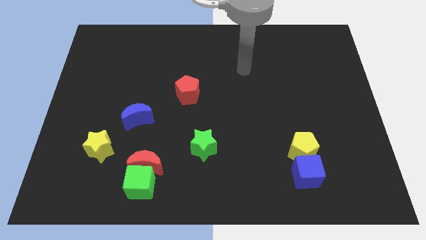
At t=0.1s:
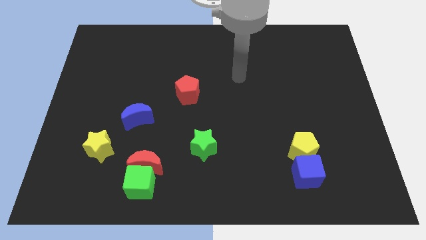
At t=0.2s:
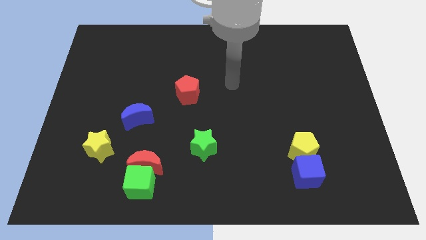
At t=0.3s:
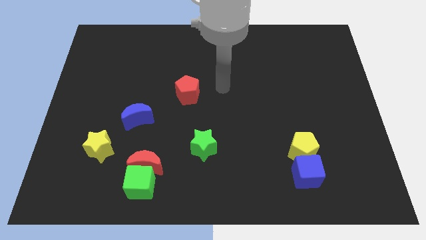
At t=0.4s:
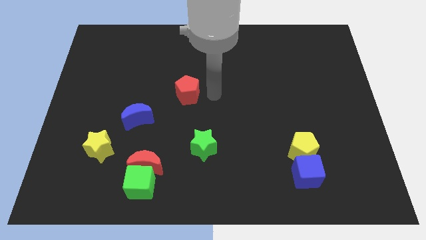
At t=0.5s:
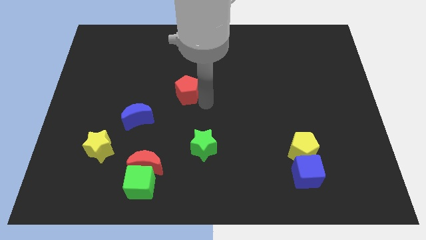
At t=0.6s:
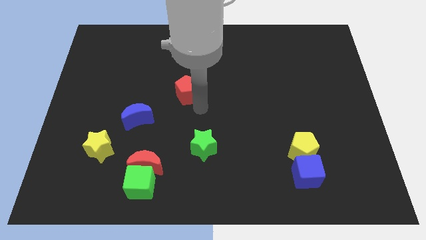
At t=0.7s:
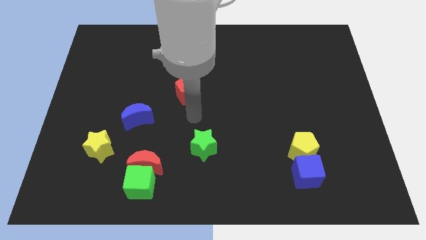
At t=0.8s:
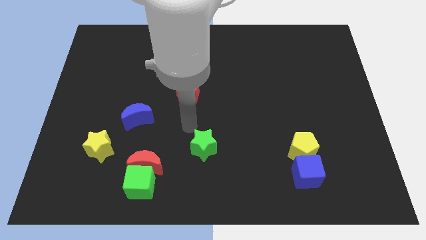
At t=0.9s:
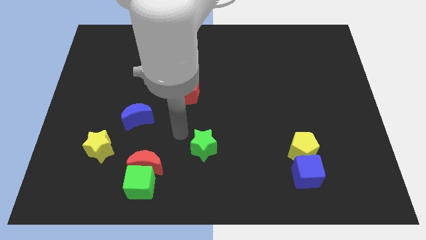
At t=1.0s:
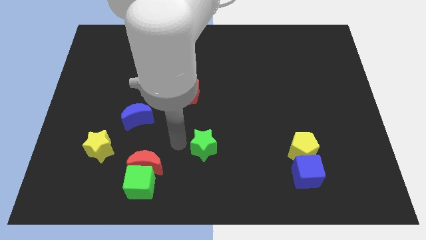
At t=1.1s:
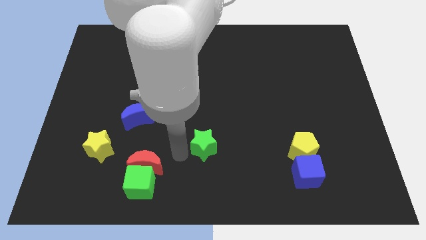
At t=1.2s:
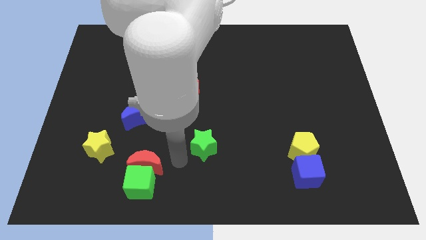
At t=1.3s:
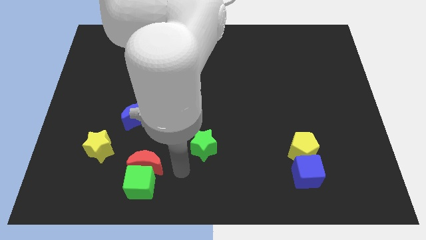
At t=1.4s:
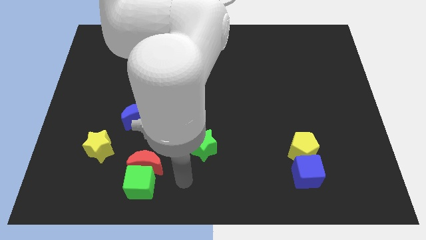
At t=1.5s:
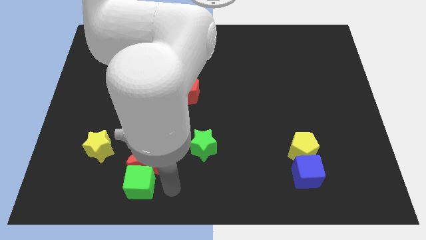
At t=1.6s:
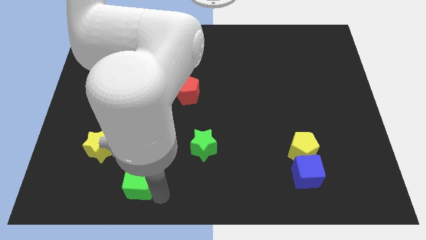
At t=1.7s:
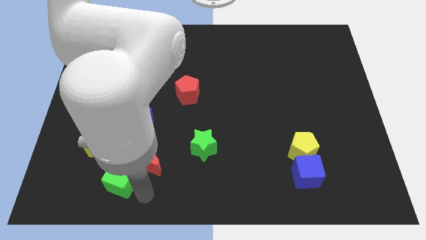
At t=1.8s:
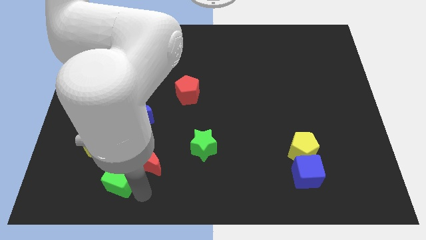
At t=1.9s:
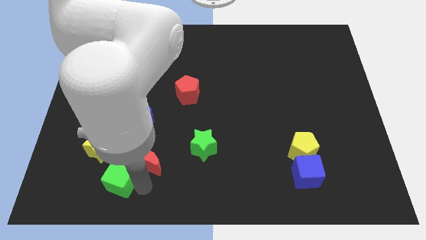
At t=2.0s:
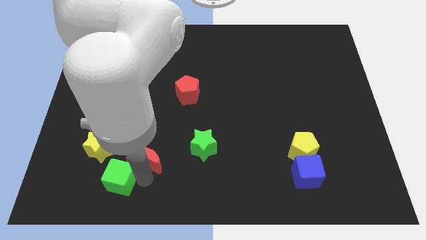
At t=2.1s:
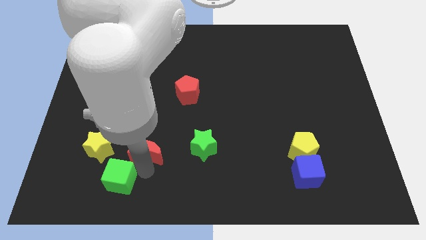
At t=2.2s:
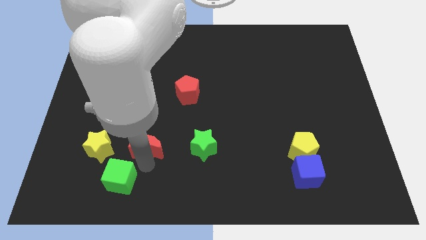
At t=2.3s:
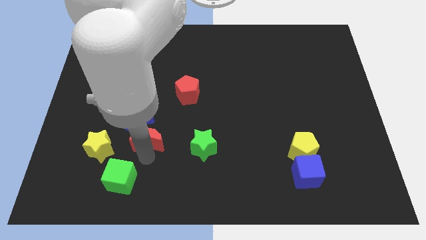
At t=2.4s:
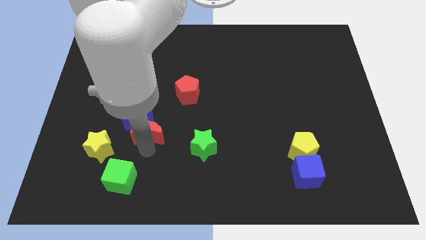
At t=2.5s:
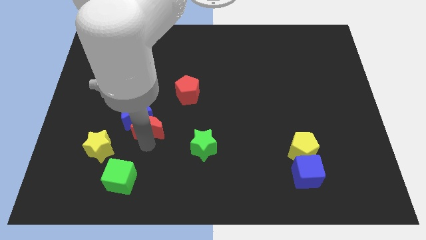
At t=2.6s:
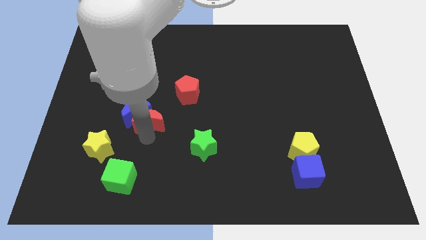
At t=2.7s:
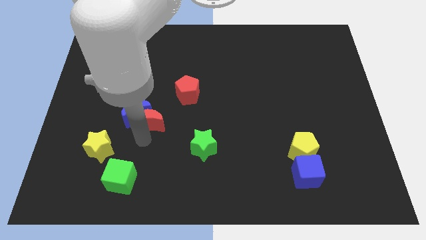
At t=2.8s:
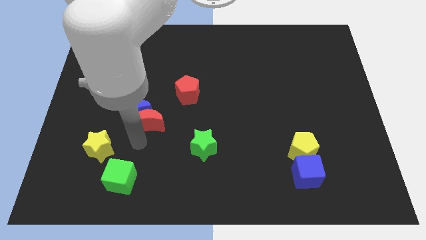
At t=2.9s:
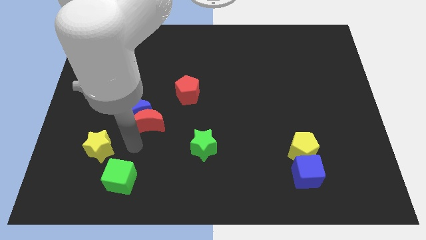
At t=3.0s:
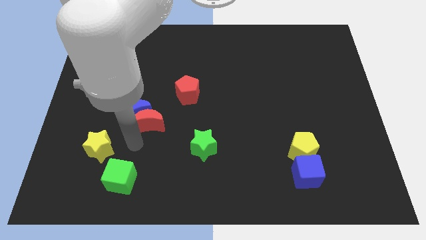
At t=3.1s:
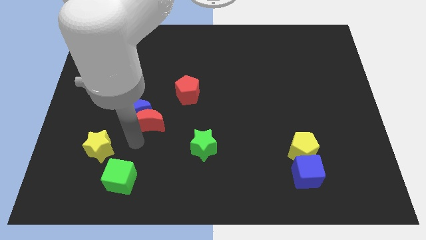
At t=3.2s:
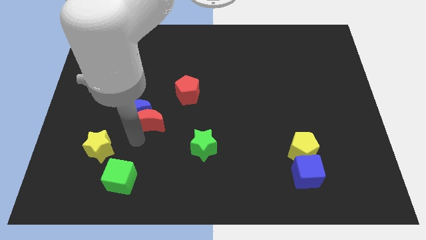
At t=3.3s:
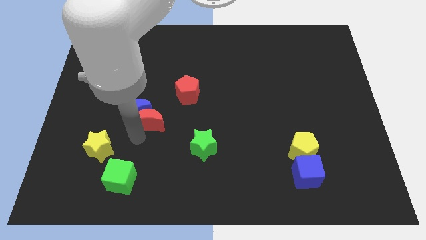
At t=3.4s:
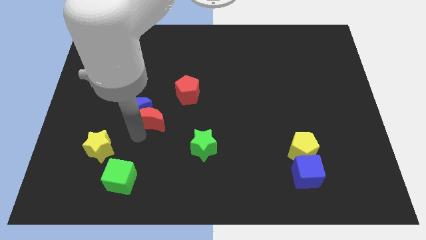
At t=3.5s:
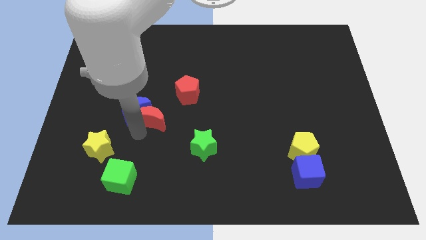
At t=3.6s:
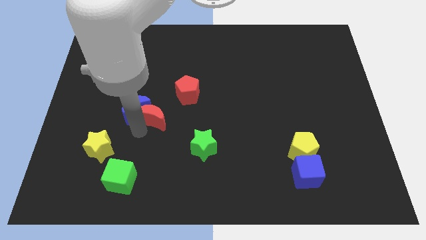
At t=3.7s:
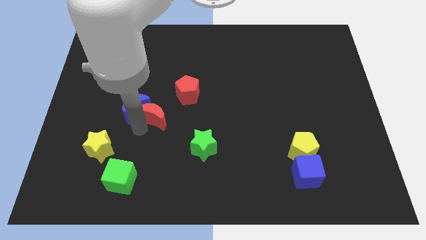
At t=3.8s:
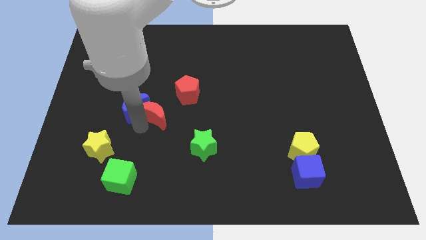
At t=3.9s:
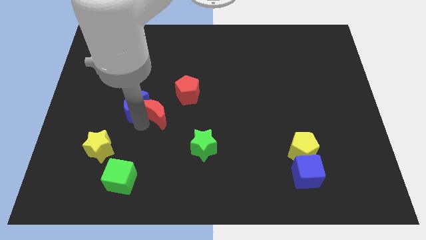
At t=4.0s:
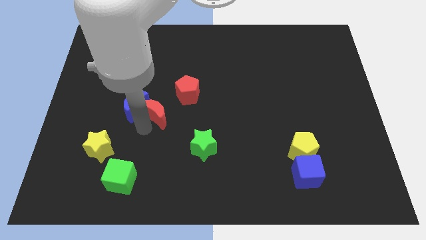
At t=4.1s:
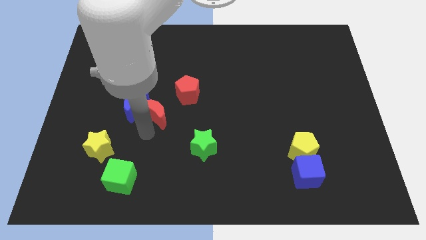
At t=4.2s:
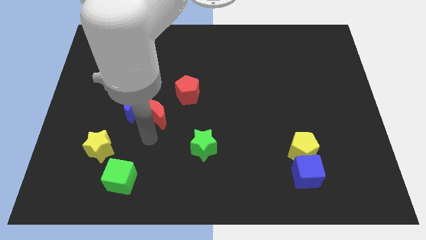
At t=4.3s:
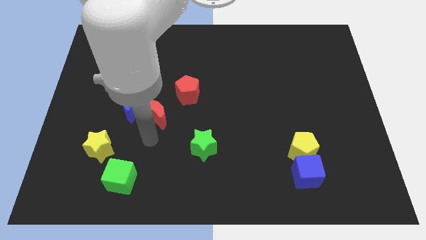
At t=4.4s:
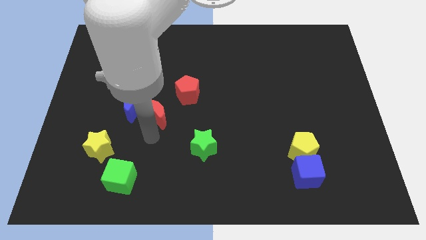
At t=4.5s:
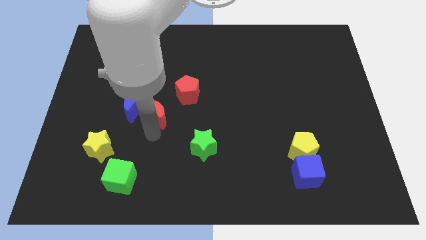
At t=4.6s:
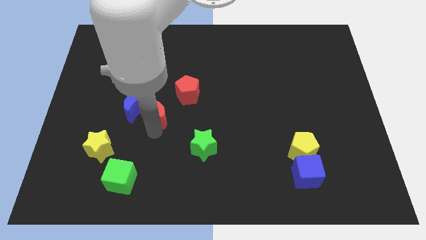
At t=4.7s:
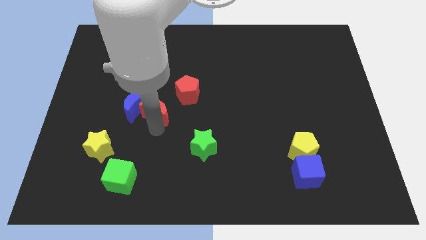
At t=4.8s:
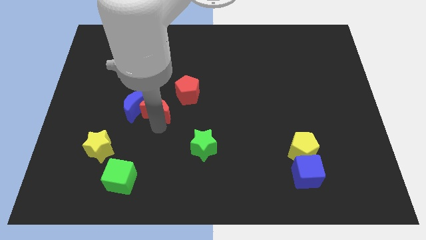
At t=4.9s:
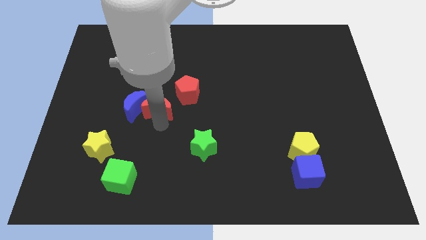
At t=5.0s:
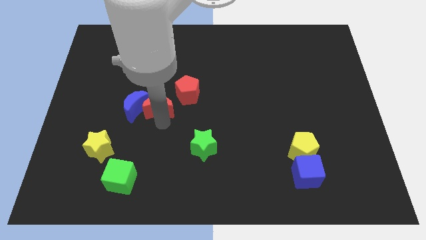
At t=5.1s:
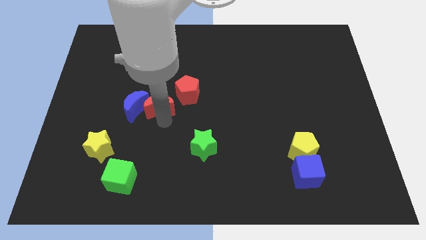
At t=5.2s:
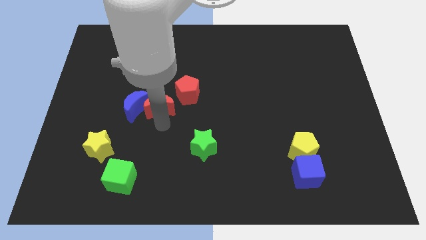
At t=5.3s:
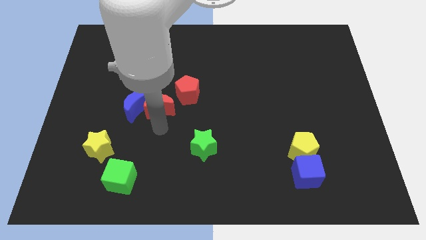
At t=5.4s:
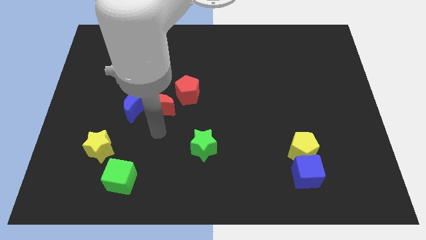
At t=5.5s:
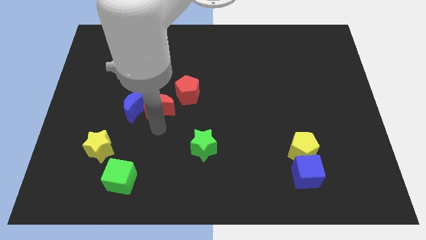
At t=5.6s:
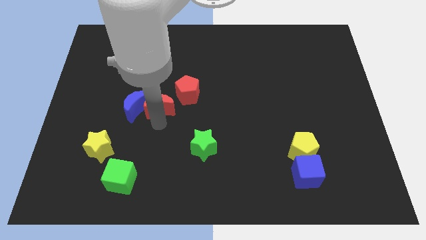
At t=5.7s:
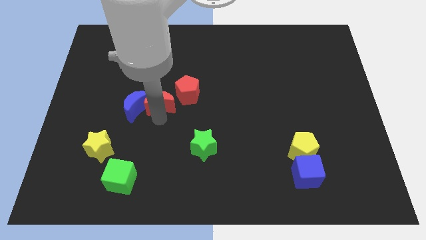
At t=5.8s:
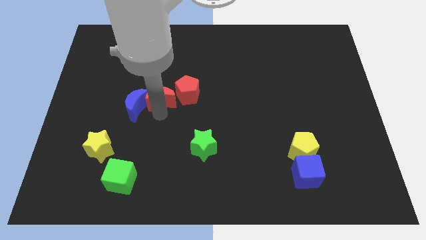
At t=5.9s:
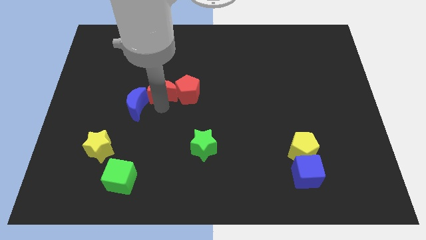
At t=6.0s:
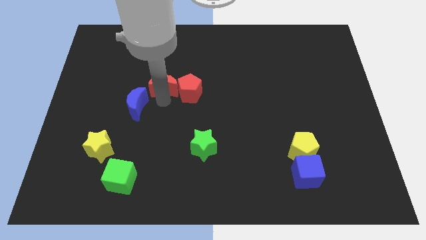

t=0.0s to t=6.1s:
slide the red moon up

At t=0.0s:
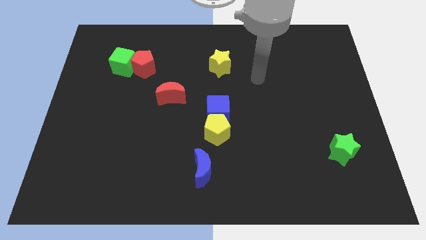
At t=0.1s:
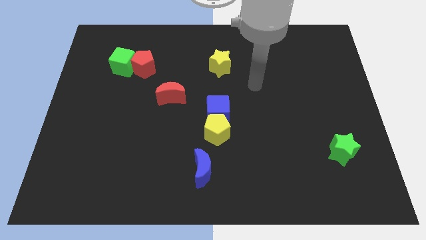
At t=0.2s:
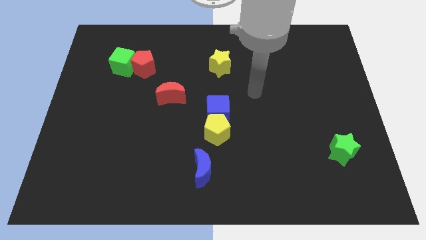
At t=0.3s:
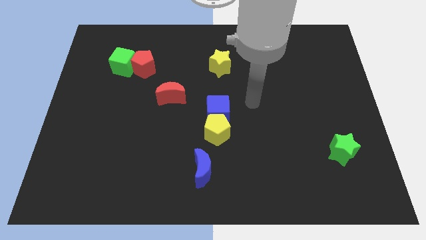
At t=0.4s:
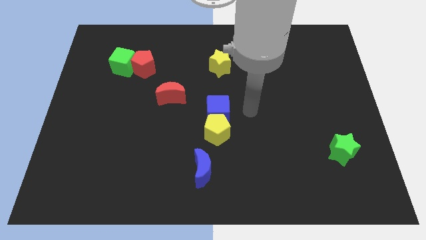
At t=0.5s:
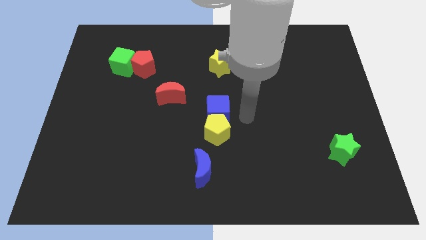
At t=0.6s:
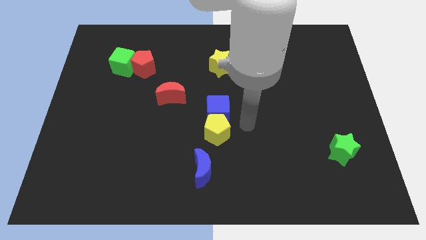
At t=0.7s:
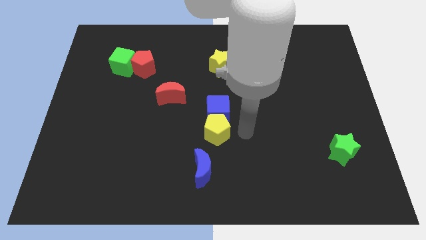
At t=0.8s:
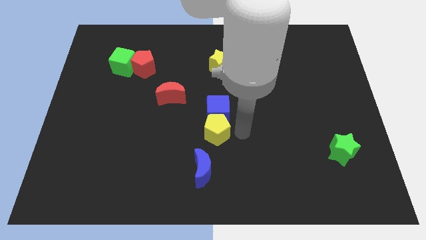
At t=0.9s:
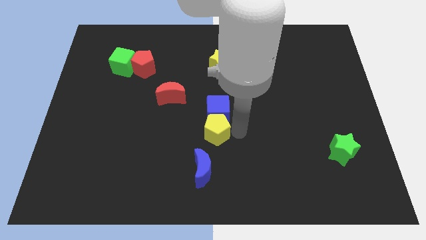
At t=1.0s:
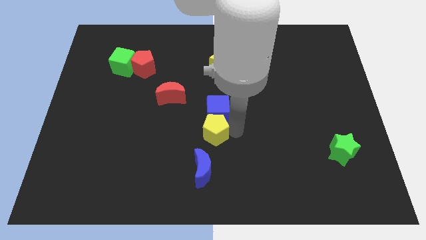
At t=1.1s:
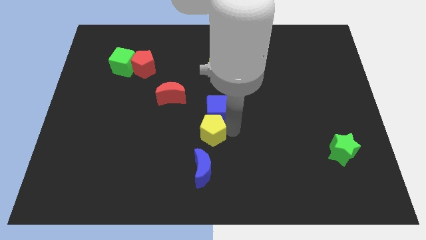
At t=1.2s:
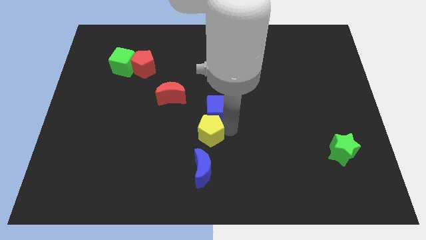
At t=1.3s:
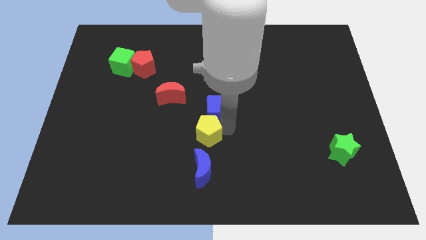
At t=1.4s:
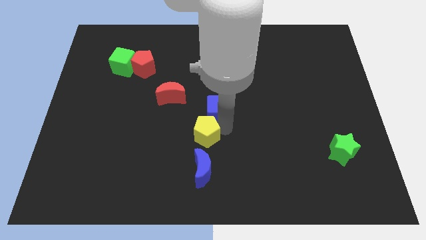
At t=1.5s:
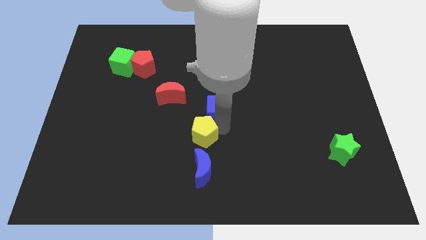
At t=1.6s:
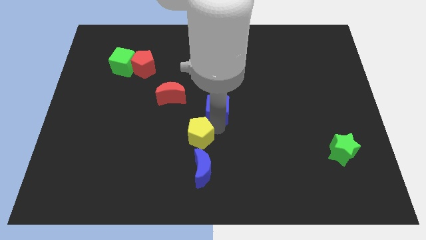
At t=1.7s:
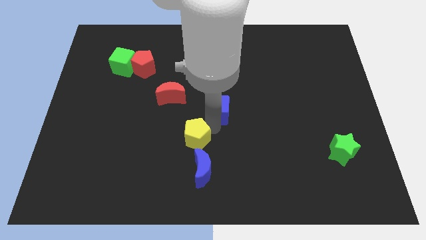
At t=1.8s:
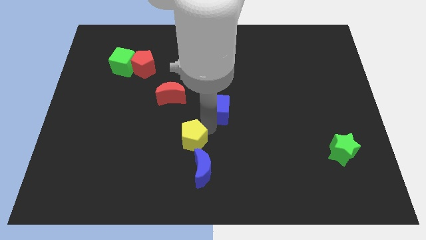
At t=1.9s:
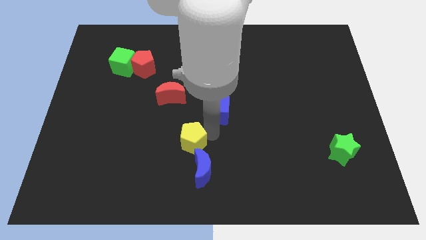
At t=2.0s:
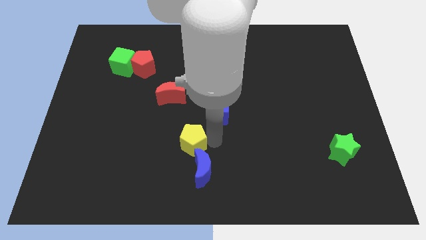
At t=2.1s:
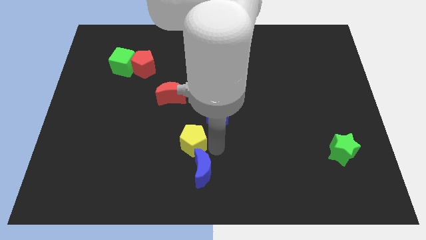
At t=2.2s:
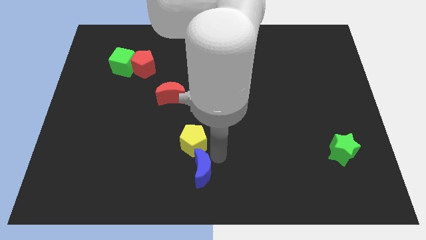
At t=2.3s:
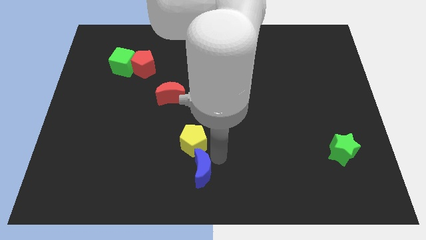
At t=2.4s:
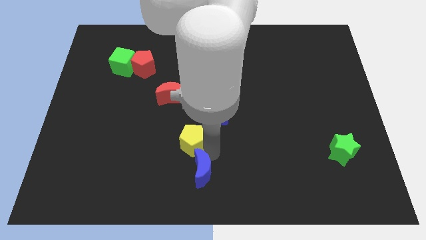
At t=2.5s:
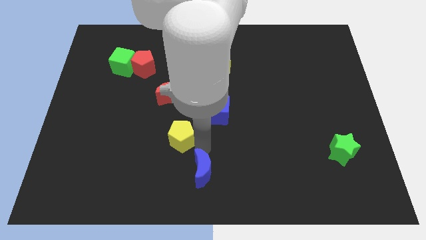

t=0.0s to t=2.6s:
slightly slide the yellow pentagon left
